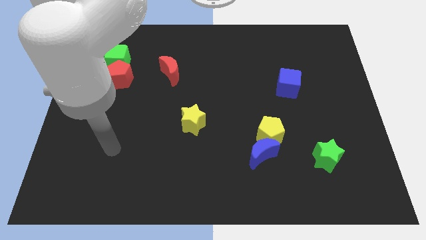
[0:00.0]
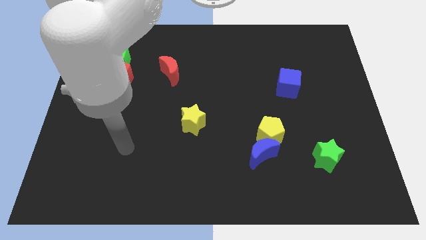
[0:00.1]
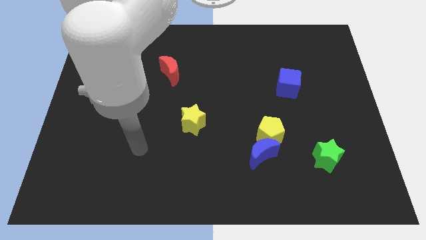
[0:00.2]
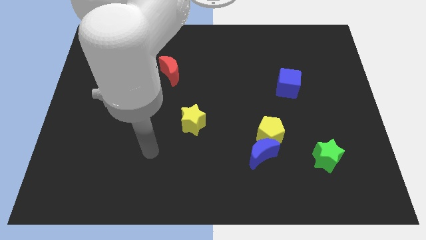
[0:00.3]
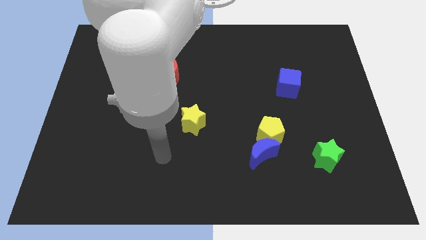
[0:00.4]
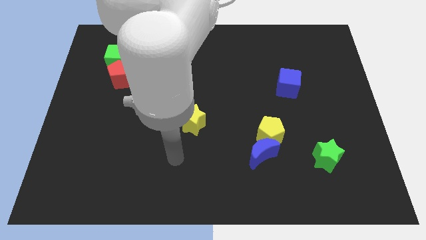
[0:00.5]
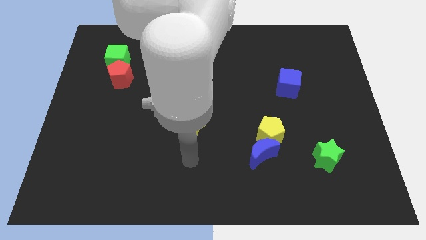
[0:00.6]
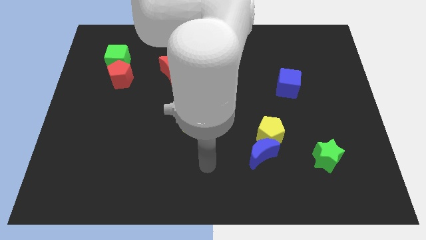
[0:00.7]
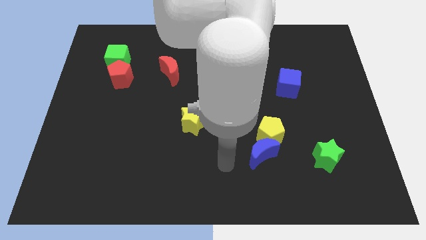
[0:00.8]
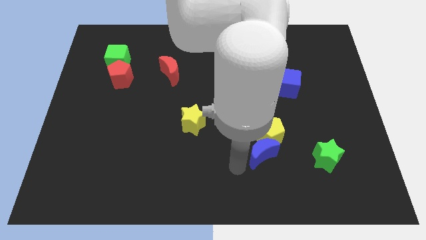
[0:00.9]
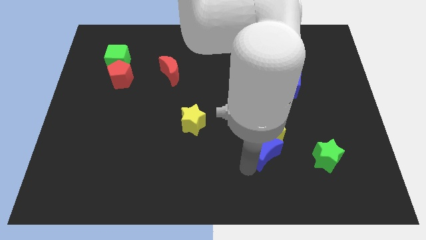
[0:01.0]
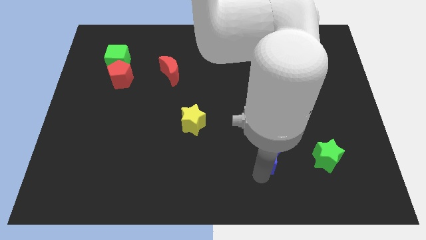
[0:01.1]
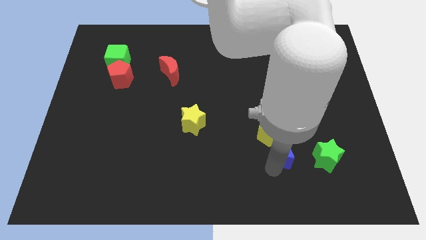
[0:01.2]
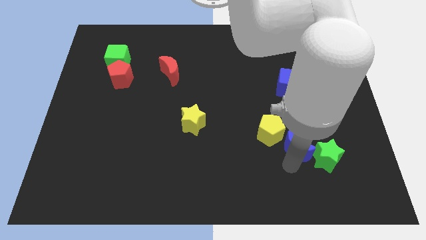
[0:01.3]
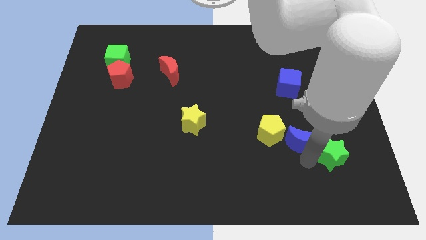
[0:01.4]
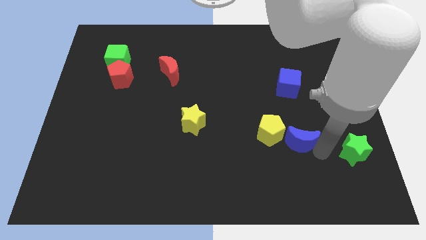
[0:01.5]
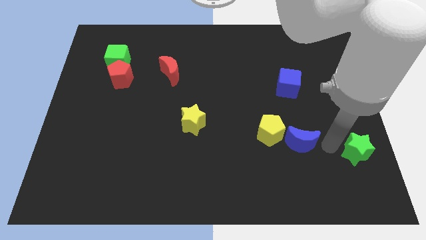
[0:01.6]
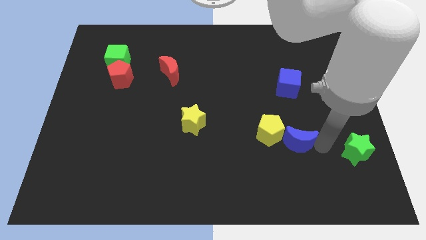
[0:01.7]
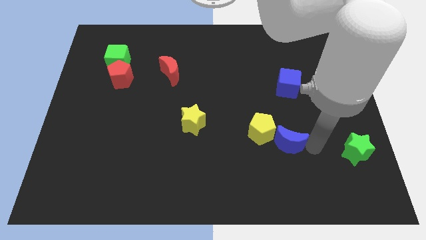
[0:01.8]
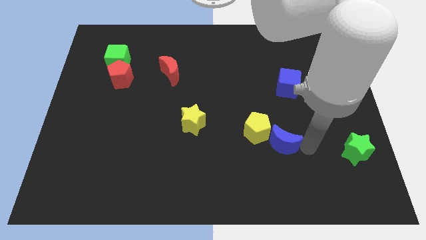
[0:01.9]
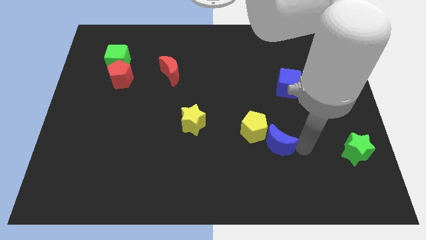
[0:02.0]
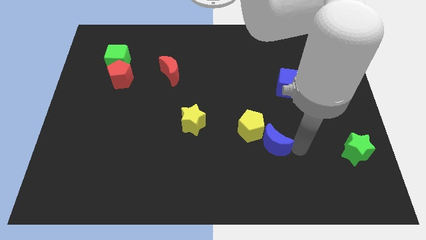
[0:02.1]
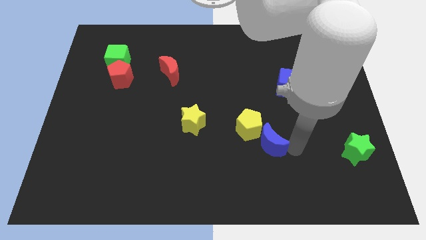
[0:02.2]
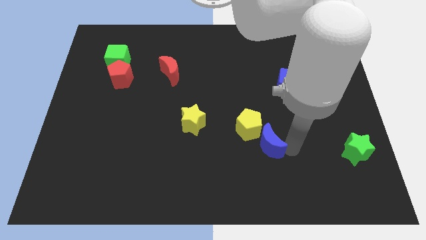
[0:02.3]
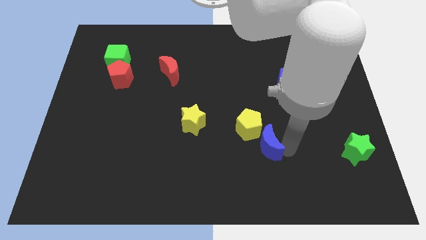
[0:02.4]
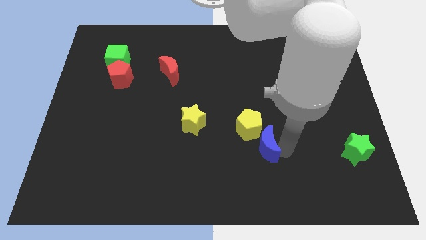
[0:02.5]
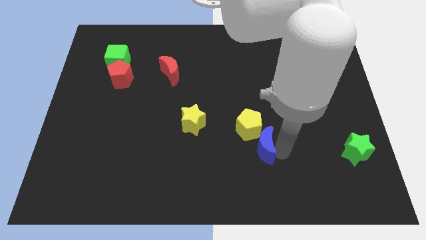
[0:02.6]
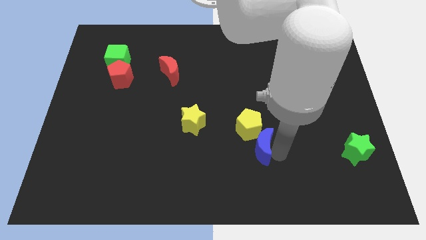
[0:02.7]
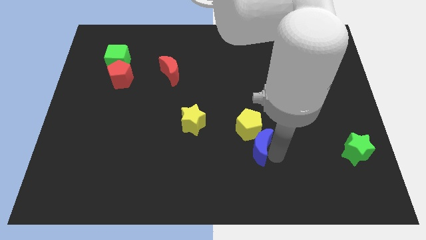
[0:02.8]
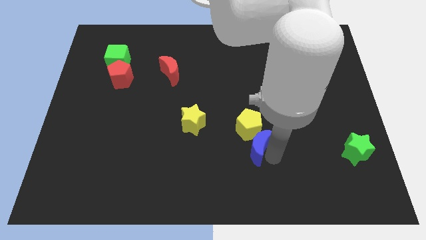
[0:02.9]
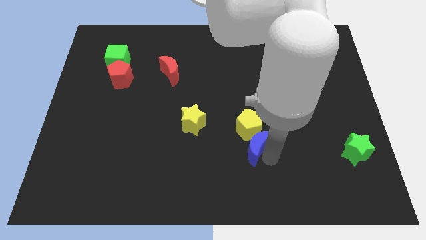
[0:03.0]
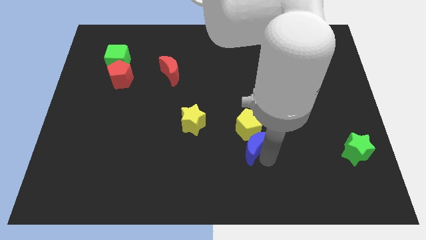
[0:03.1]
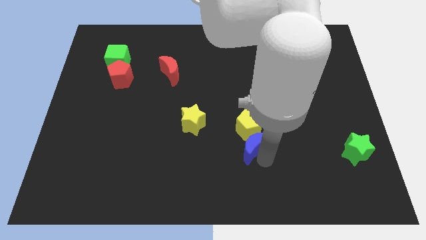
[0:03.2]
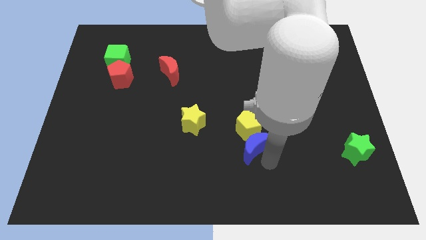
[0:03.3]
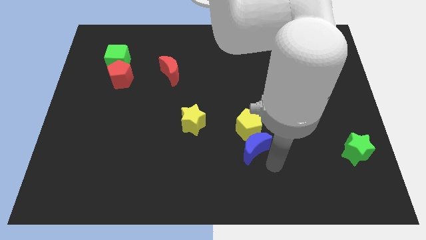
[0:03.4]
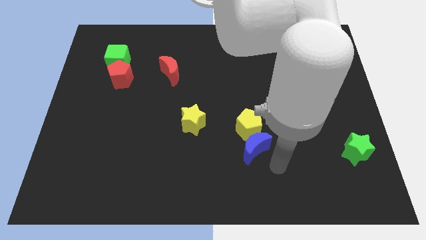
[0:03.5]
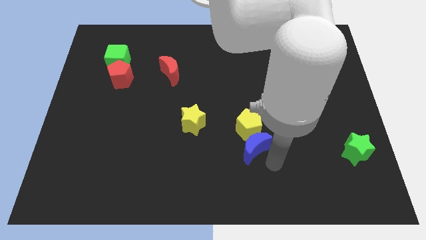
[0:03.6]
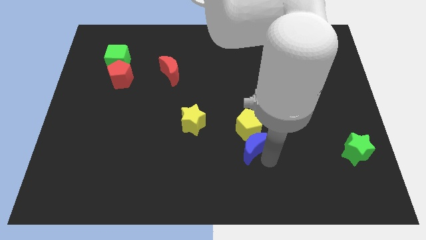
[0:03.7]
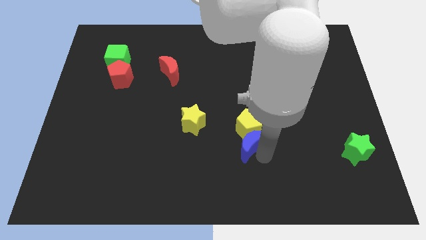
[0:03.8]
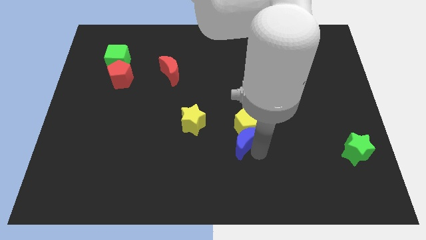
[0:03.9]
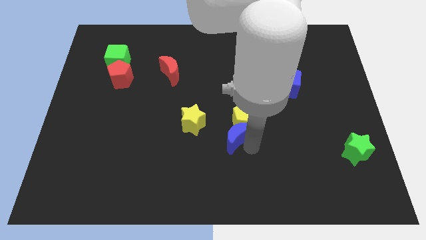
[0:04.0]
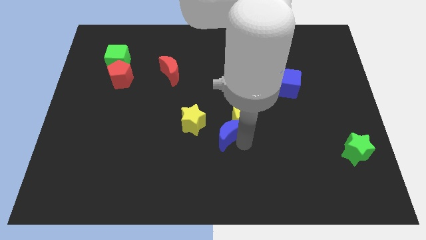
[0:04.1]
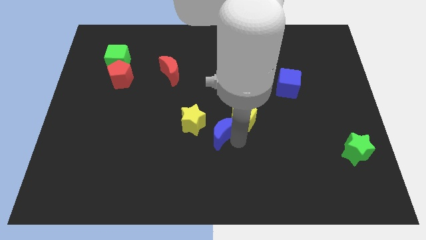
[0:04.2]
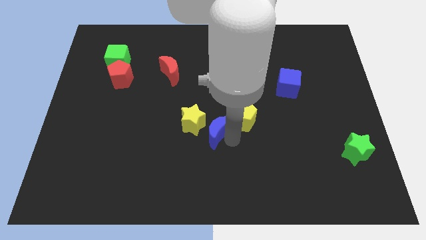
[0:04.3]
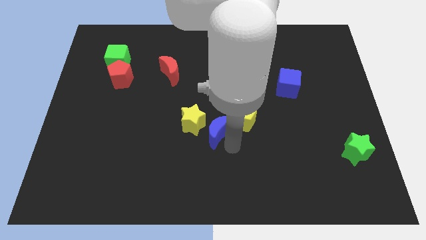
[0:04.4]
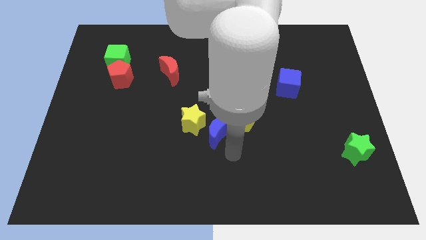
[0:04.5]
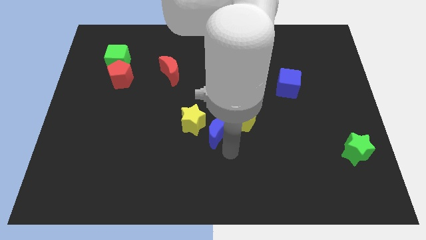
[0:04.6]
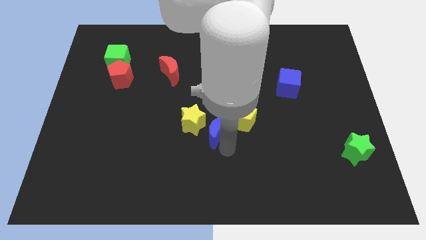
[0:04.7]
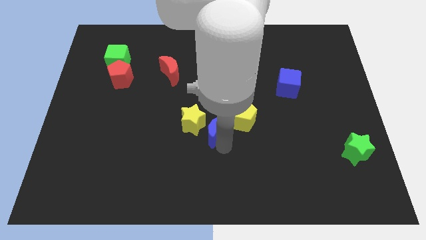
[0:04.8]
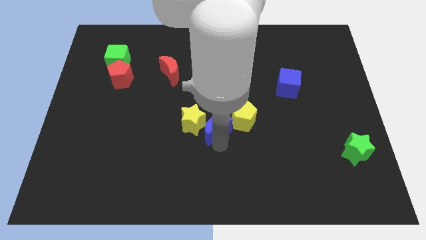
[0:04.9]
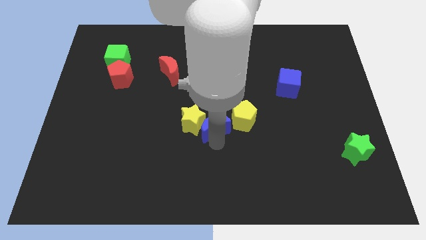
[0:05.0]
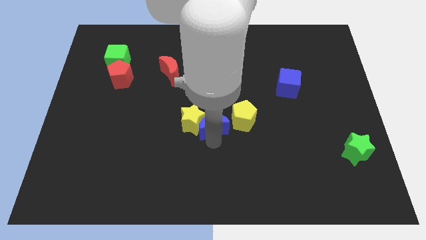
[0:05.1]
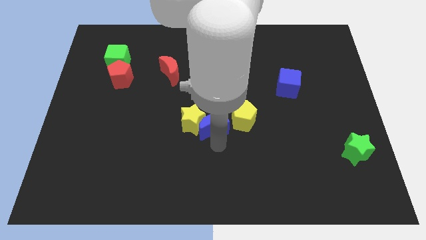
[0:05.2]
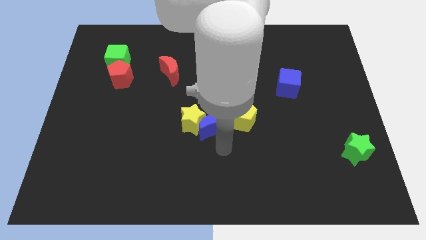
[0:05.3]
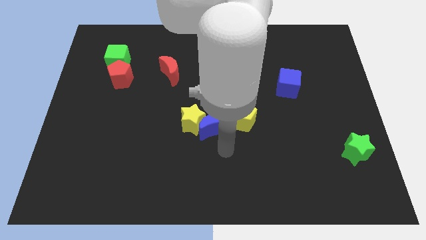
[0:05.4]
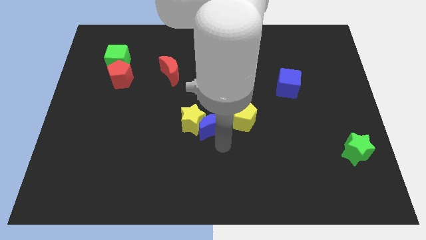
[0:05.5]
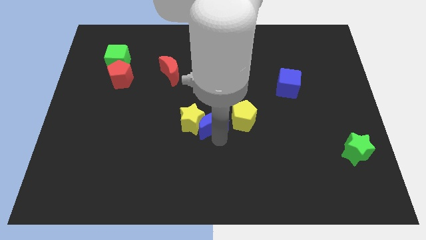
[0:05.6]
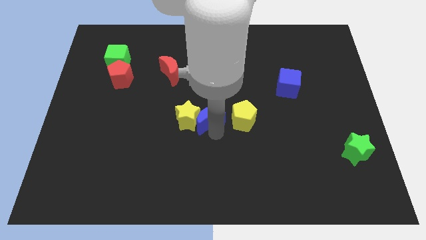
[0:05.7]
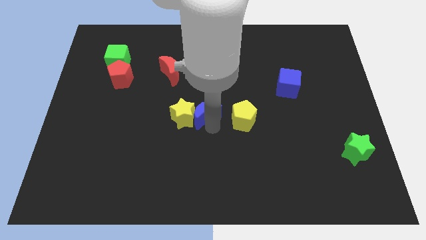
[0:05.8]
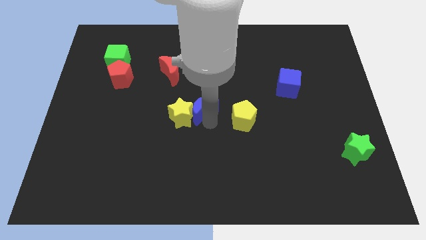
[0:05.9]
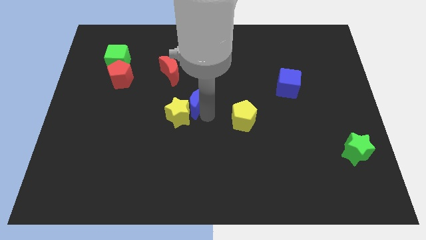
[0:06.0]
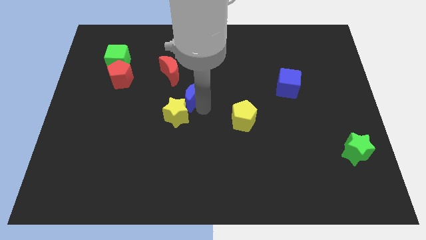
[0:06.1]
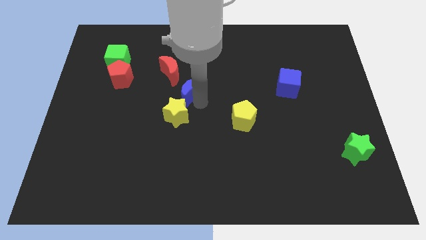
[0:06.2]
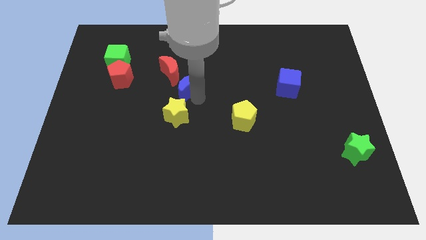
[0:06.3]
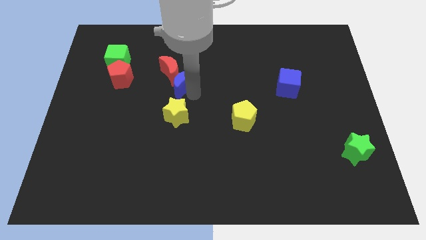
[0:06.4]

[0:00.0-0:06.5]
put the blue moon next to the red moon
